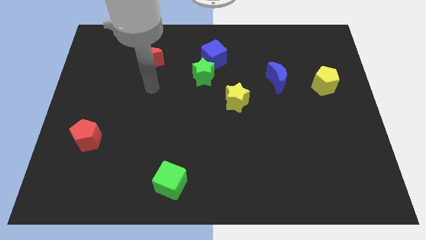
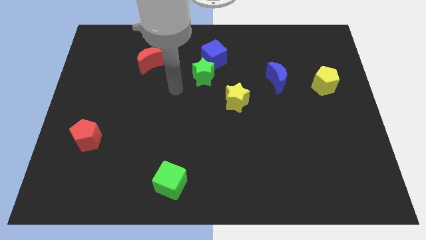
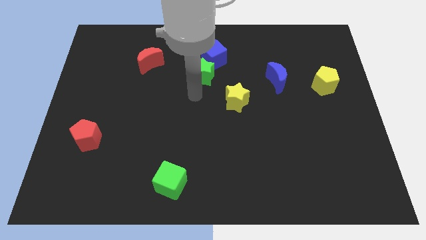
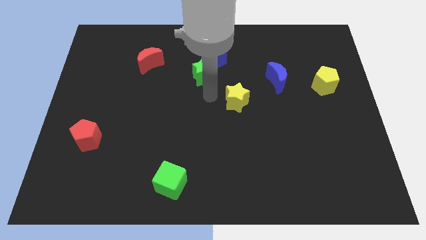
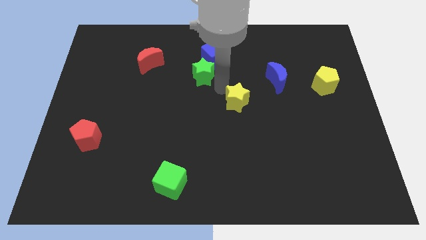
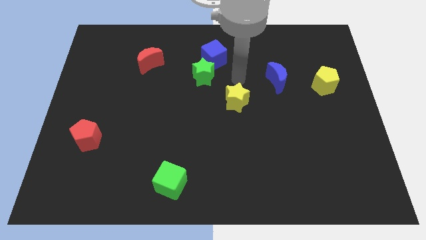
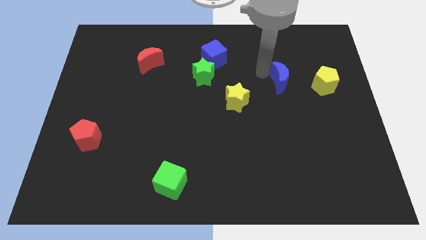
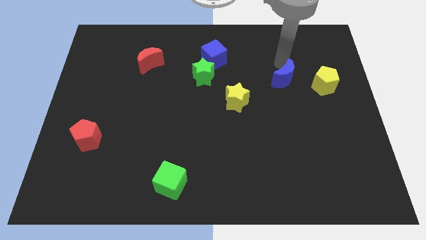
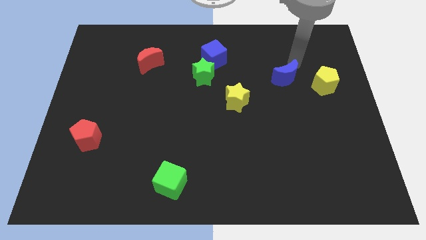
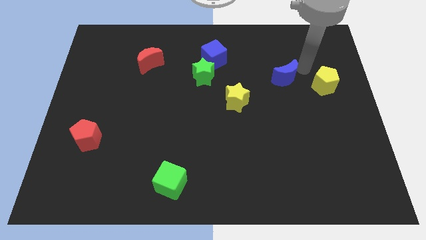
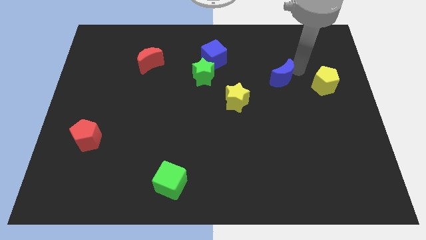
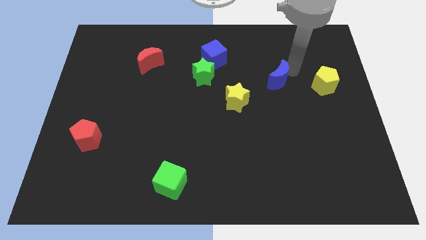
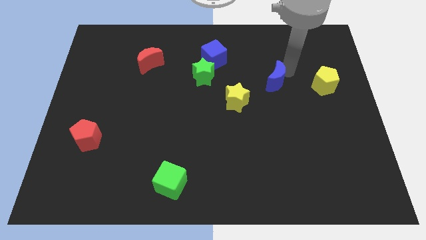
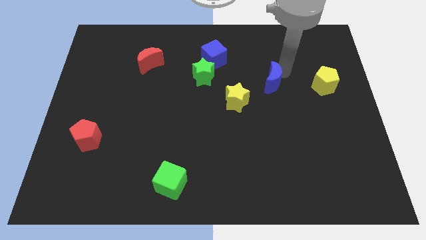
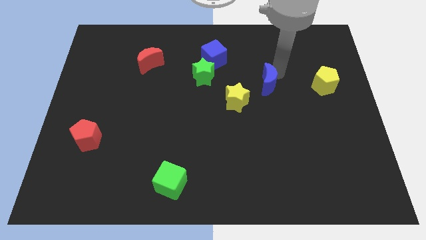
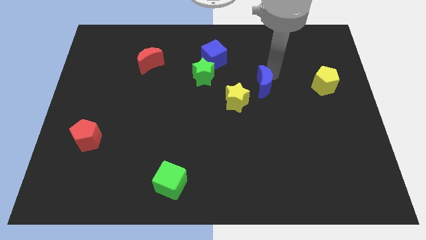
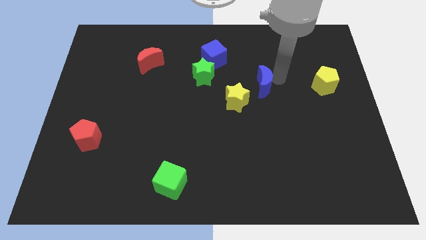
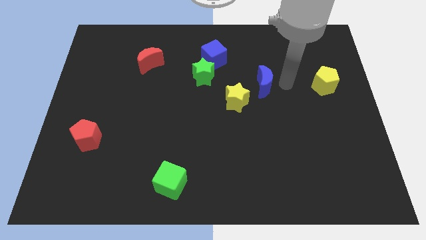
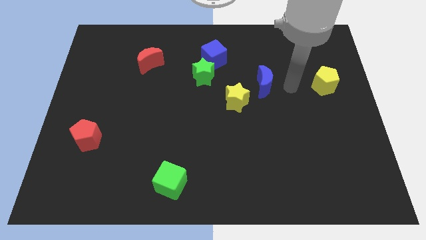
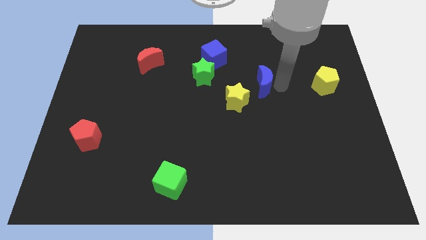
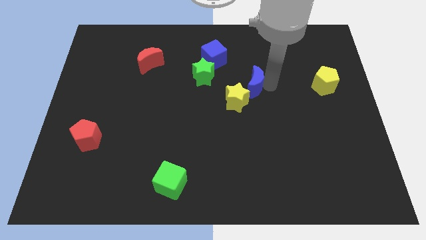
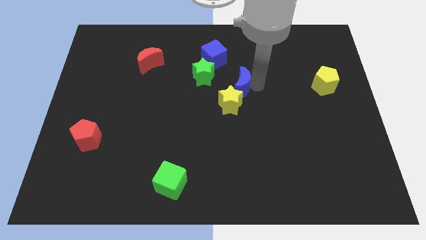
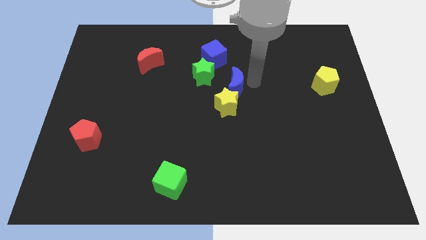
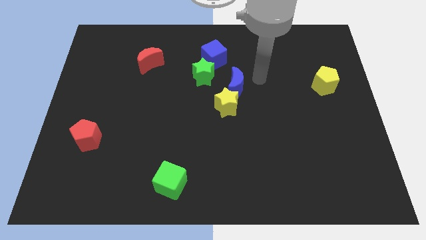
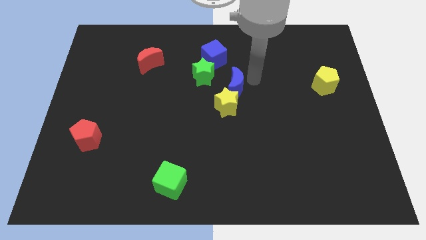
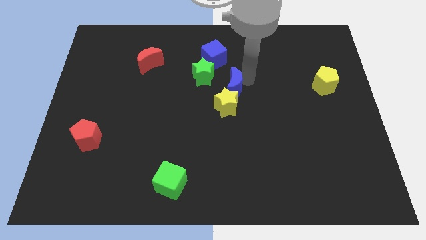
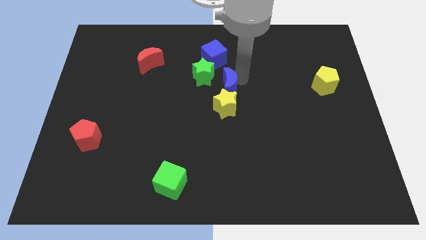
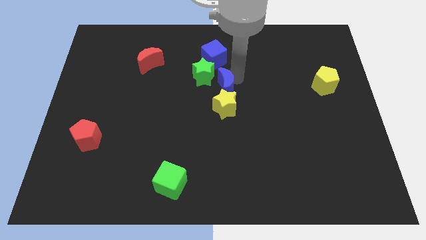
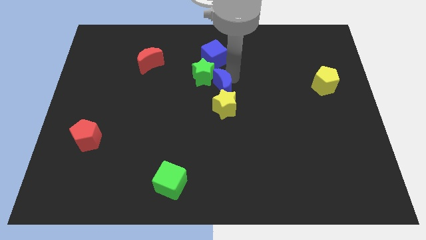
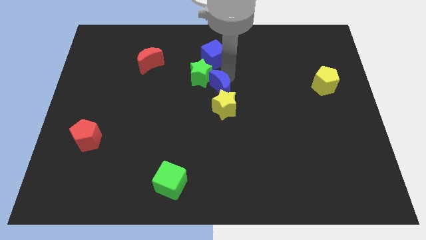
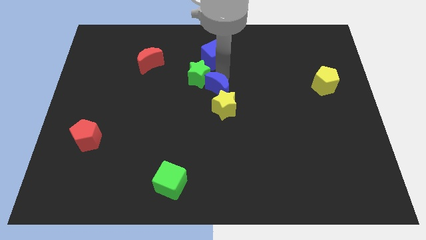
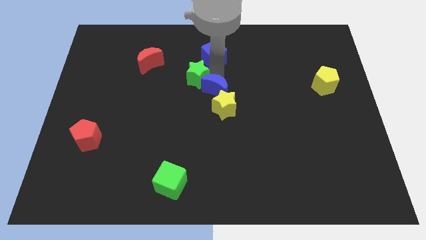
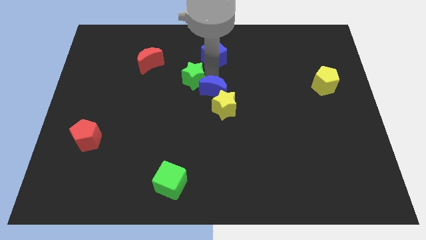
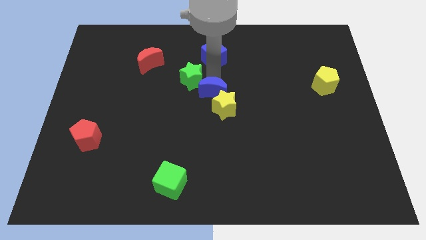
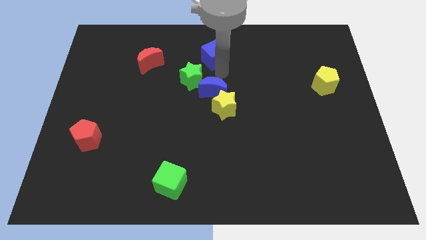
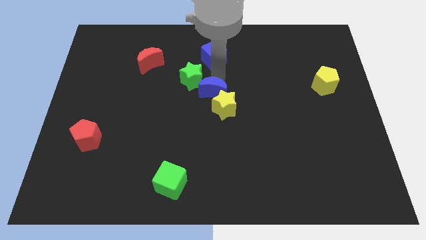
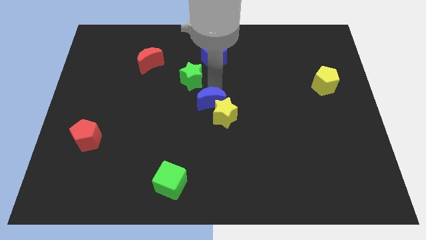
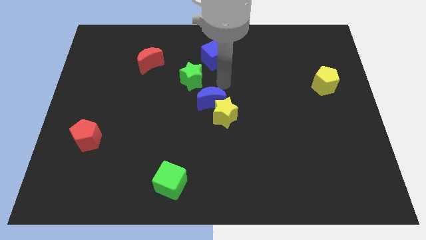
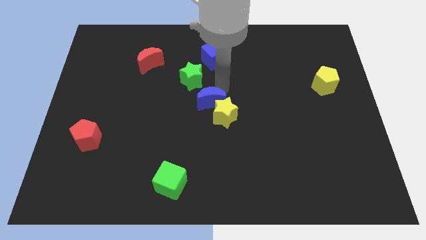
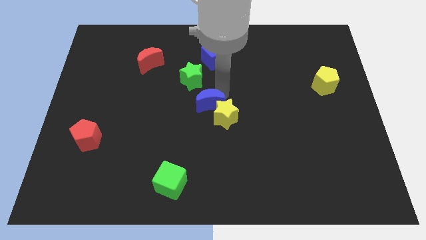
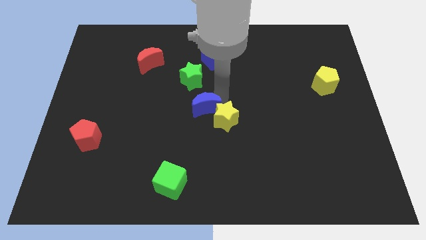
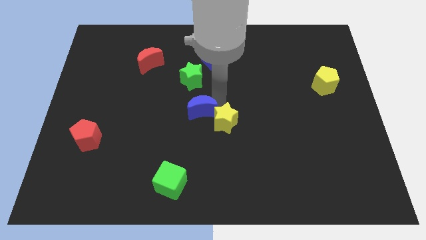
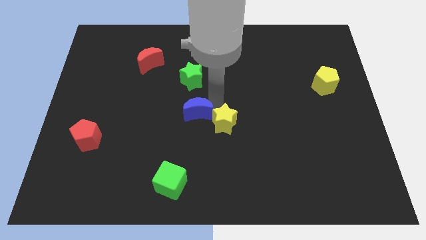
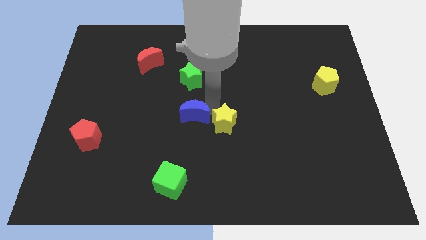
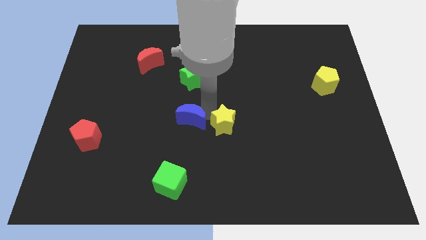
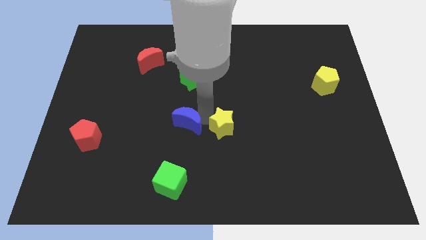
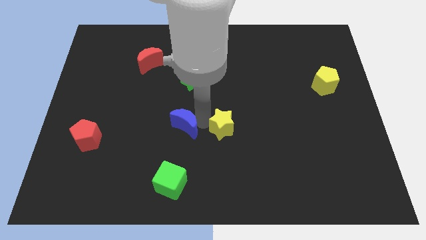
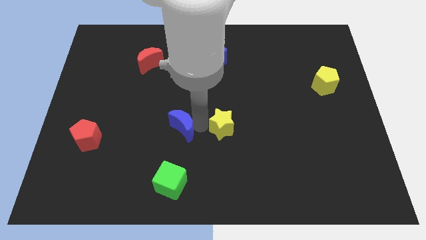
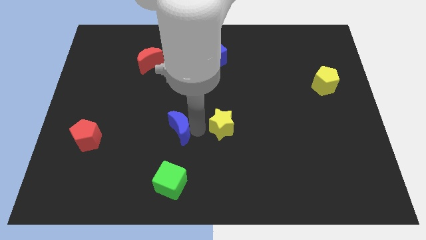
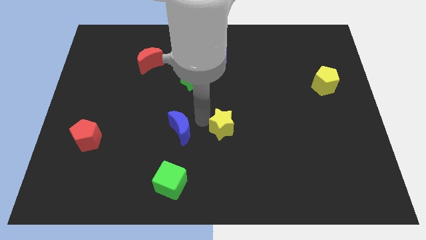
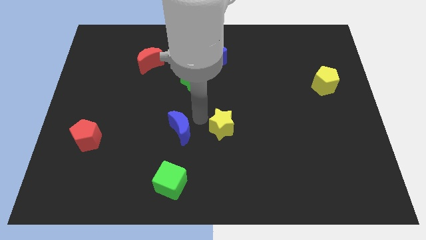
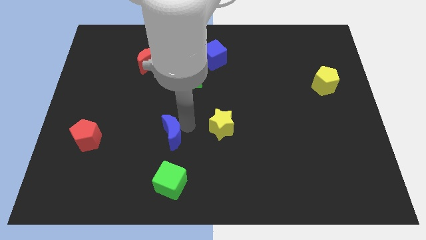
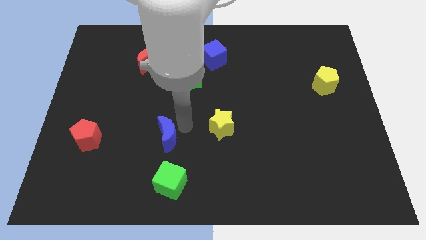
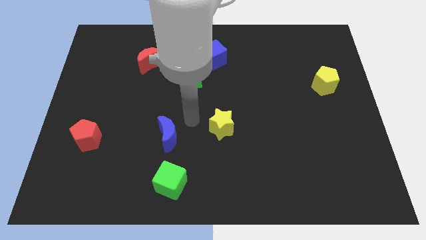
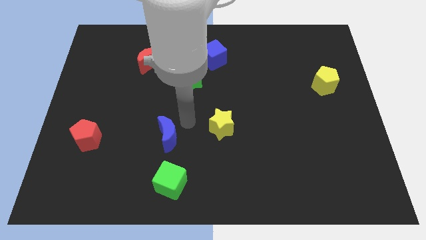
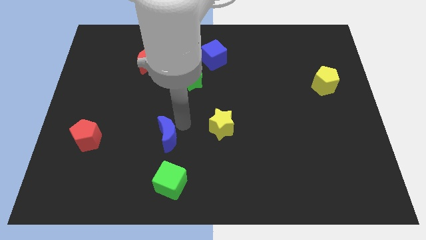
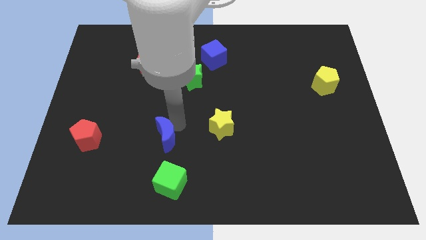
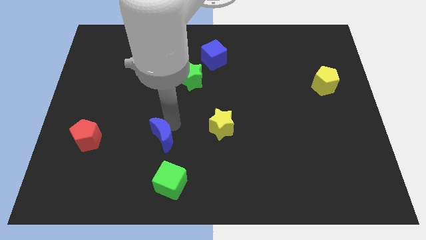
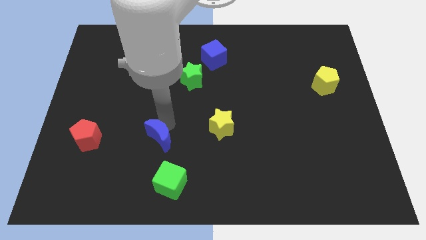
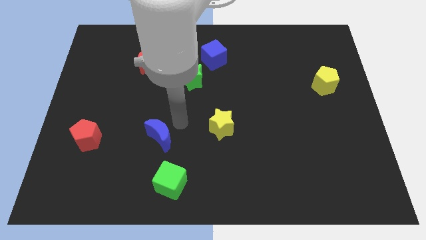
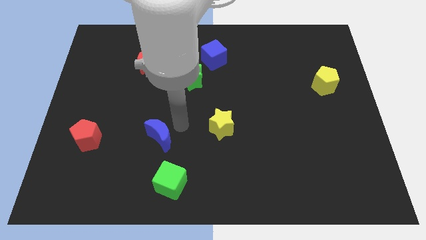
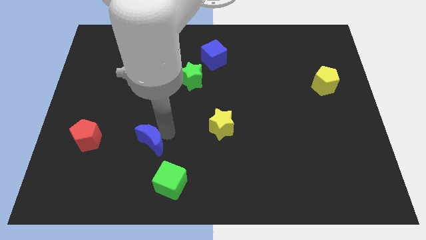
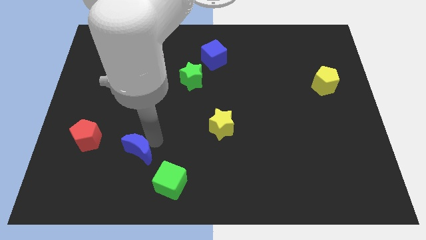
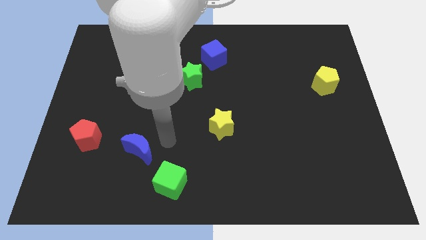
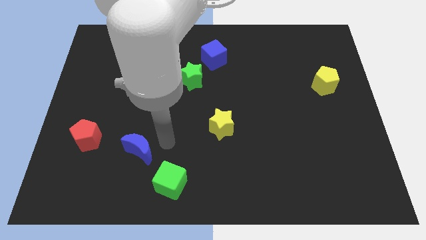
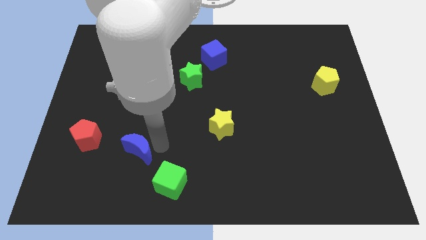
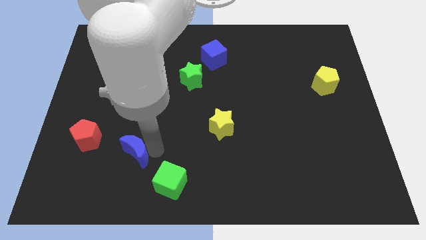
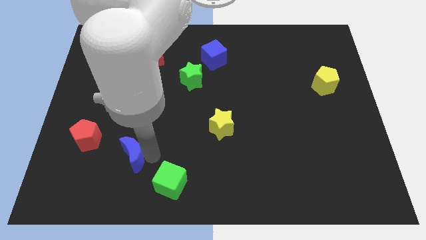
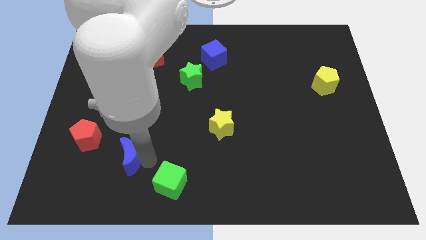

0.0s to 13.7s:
slide the blue moon to the bottom right of the red pentagon

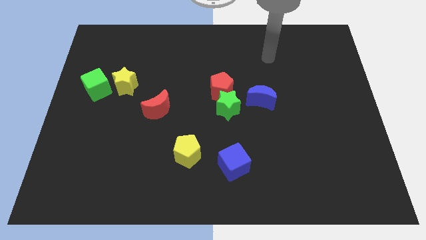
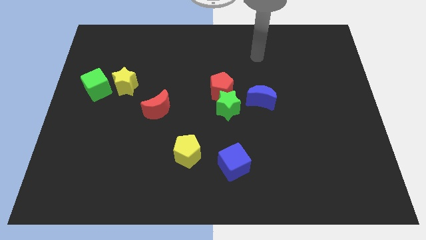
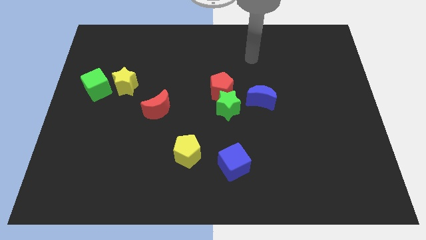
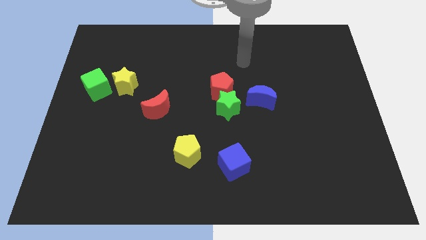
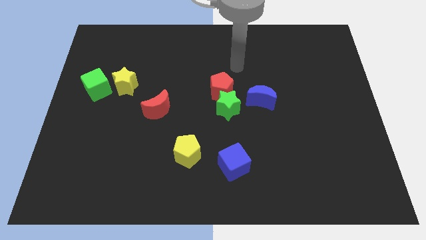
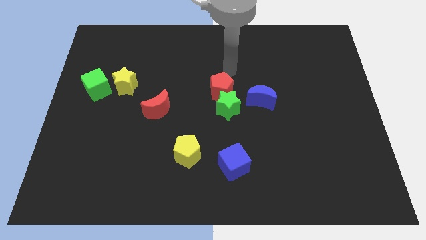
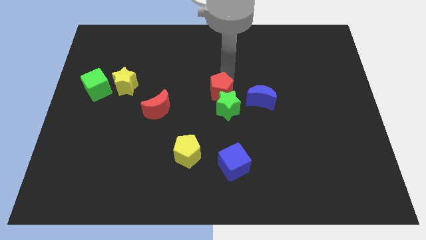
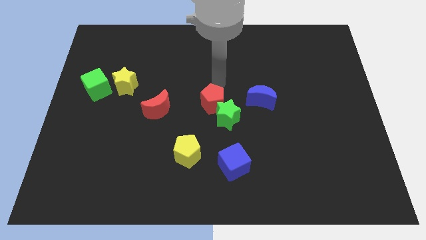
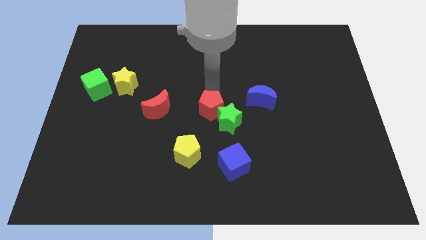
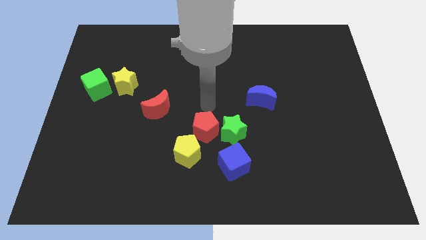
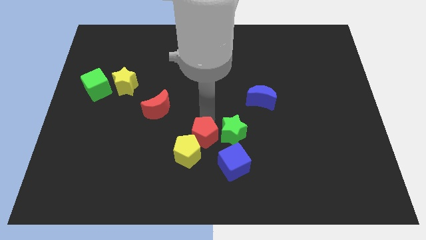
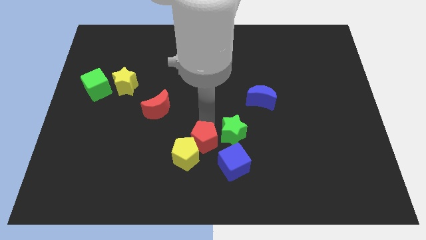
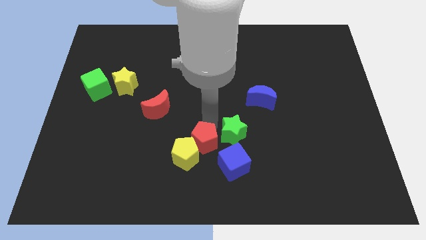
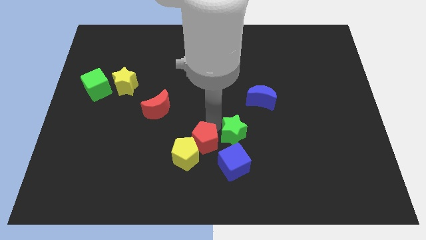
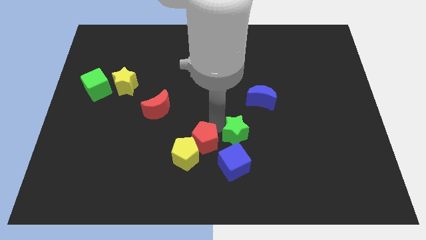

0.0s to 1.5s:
push the green star to the top right side of the blue cube
